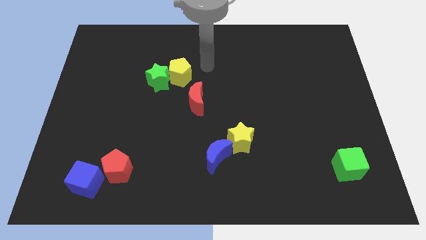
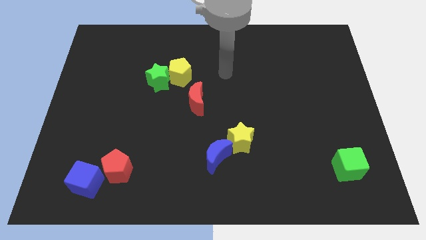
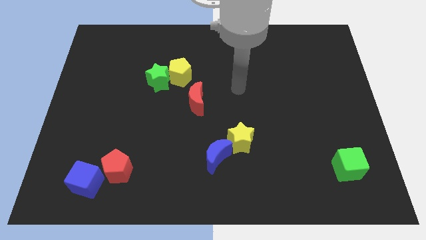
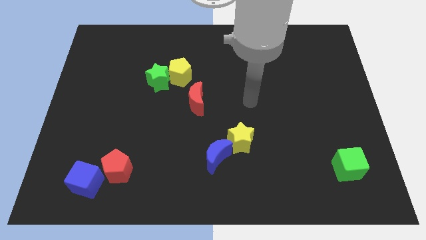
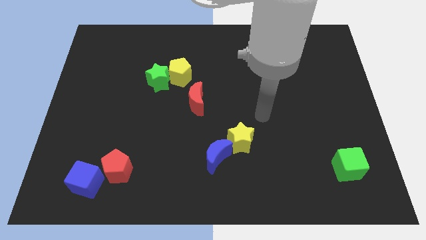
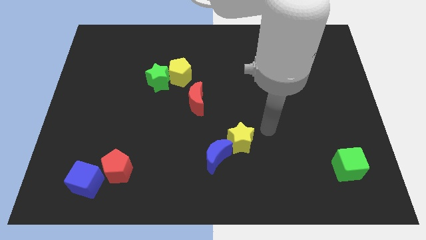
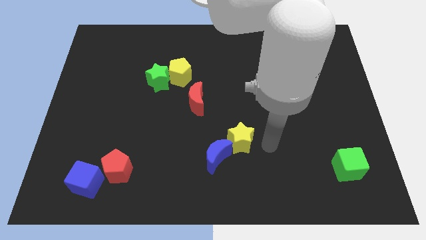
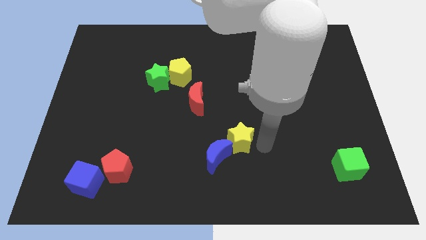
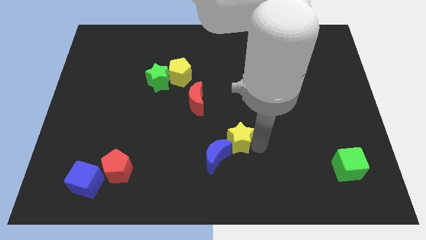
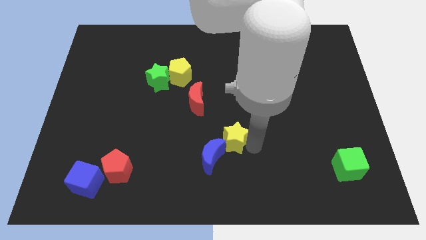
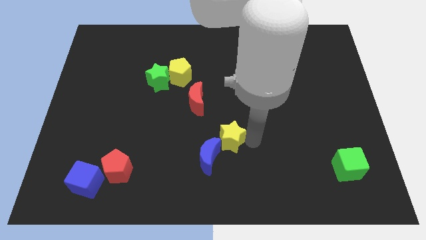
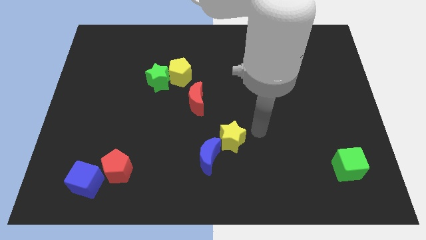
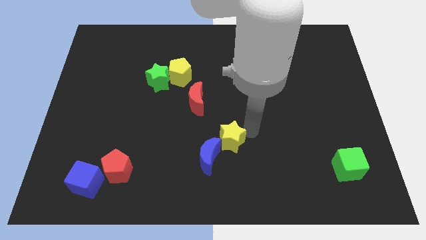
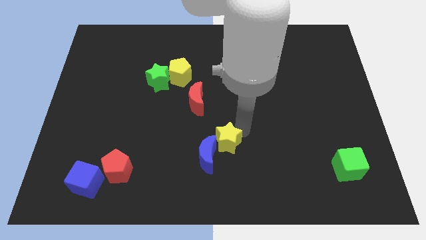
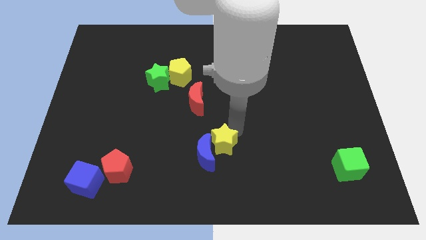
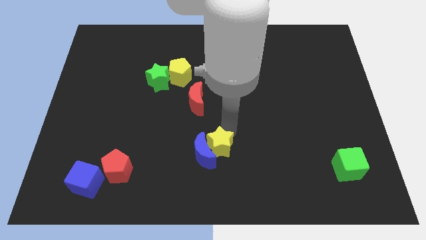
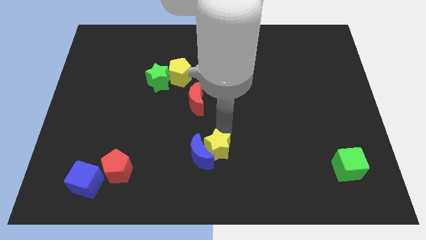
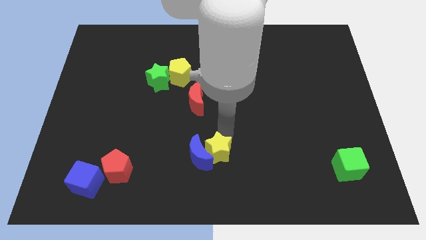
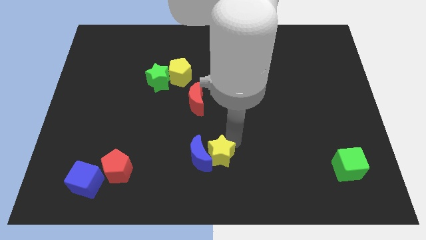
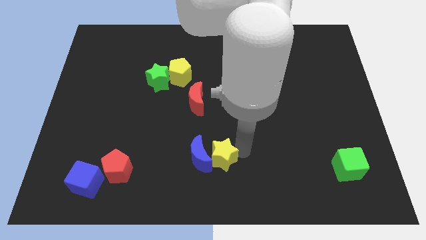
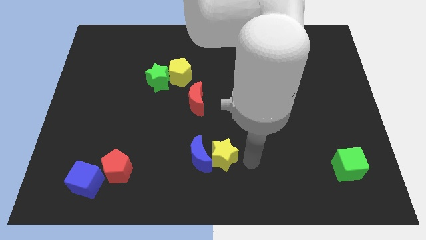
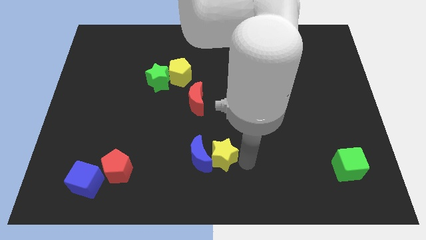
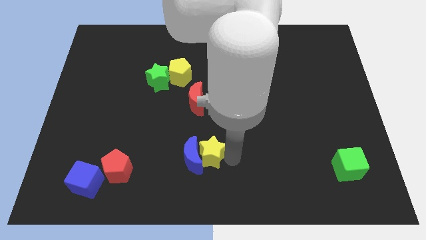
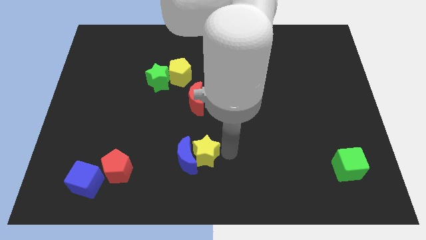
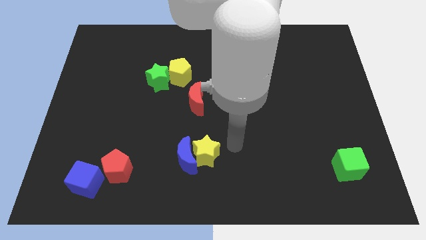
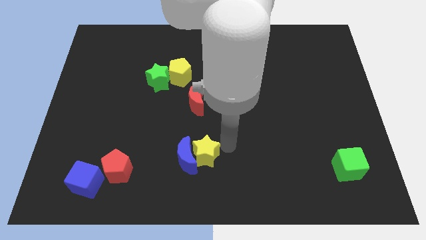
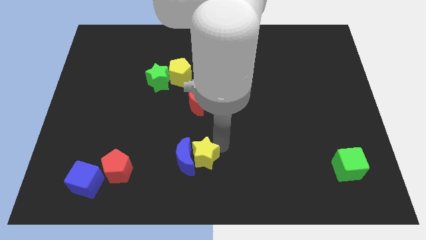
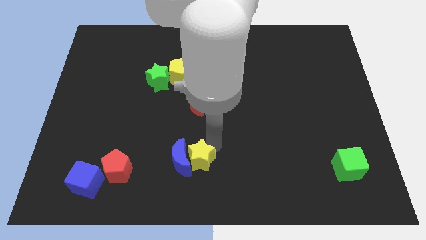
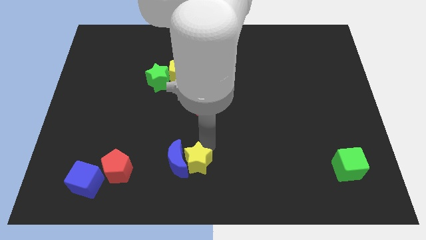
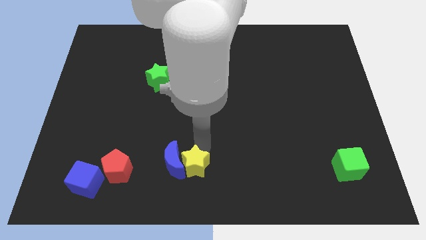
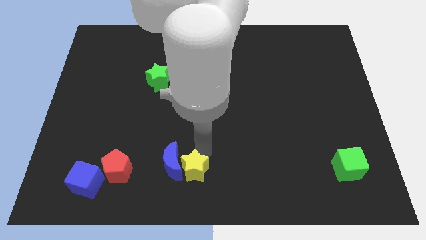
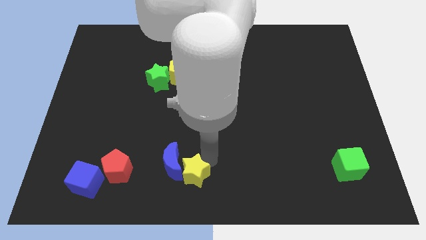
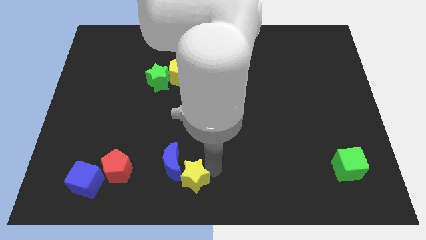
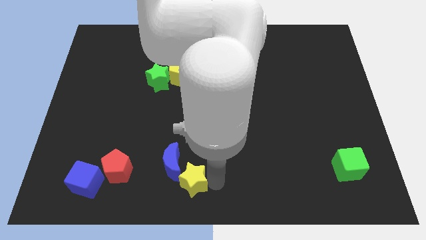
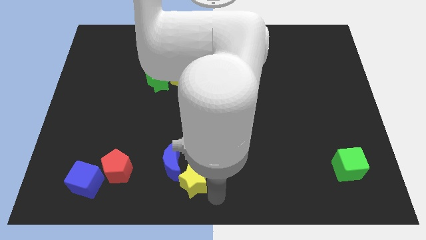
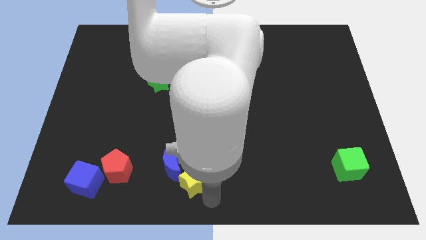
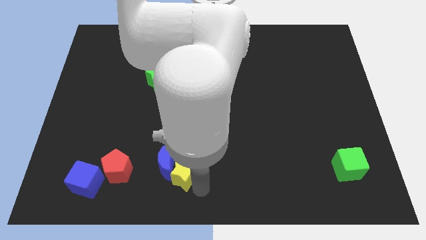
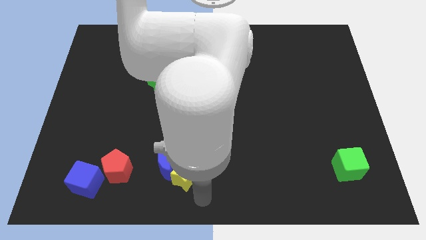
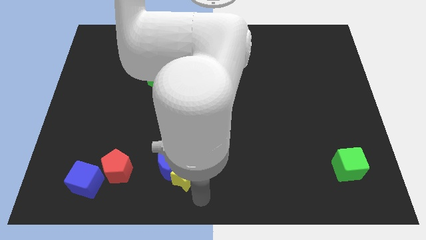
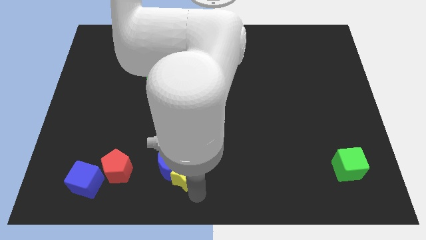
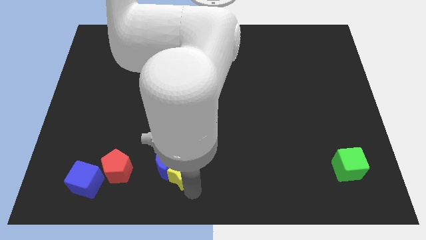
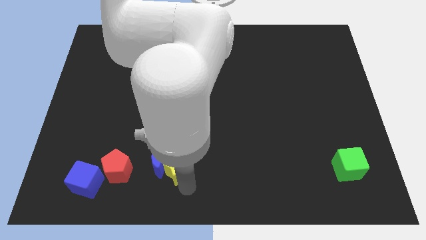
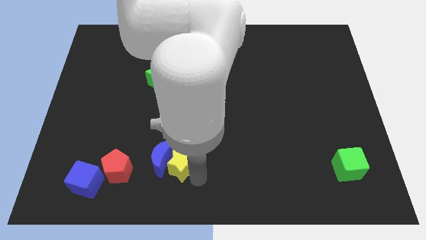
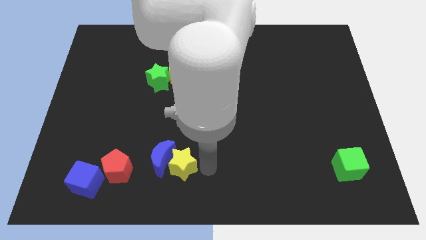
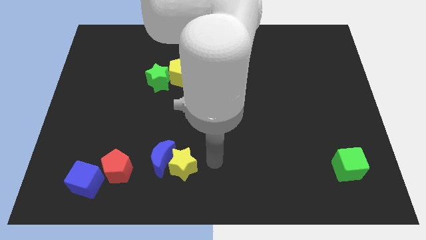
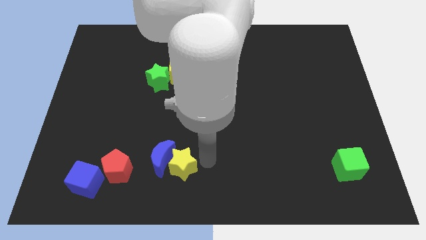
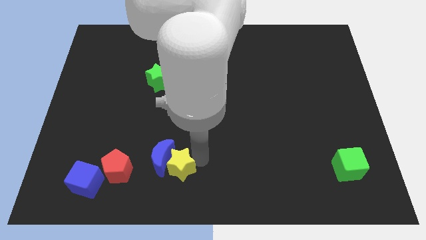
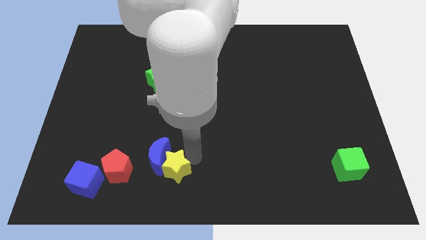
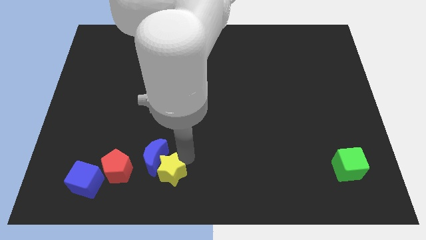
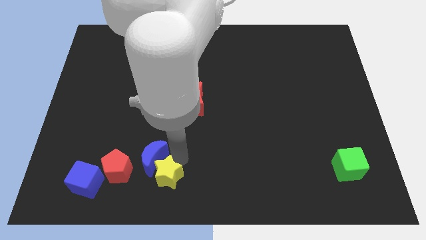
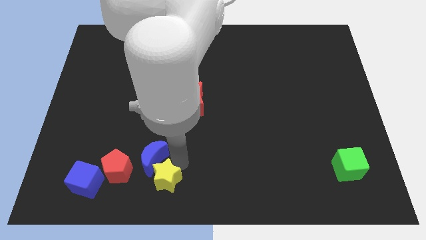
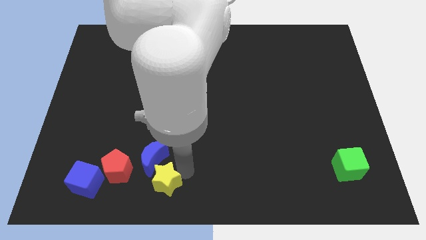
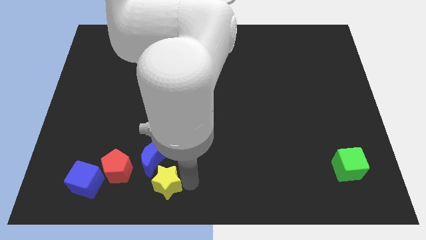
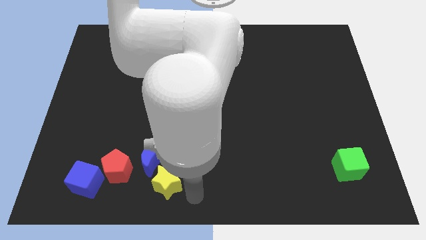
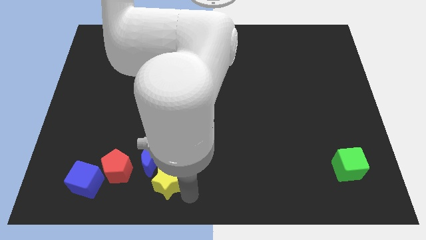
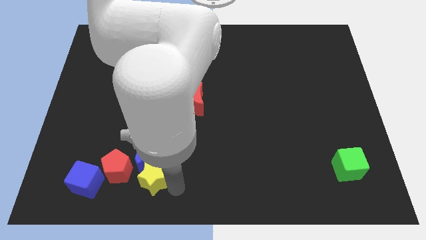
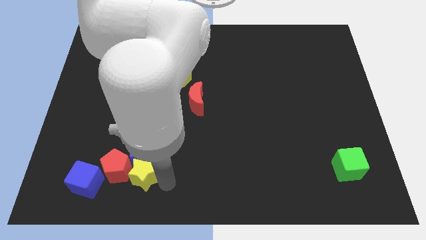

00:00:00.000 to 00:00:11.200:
move the yellow star towards the red pentagon

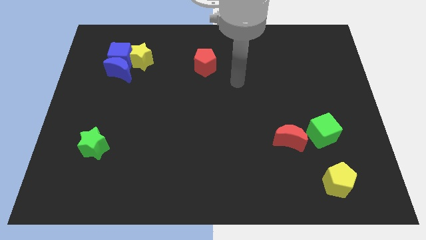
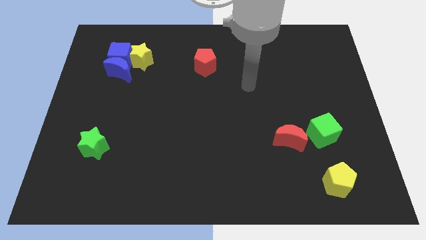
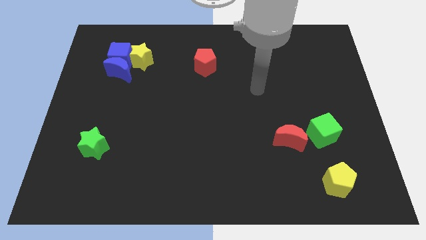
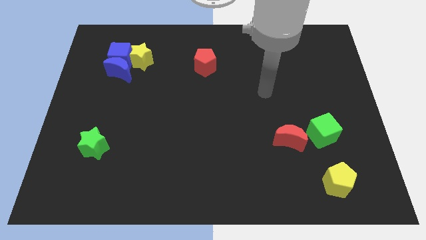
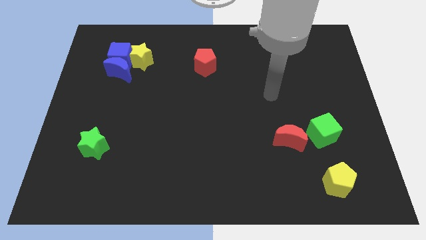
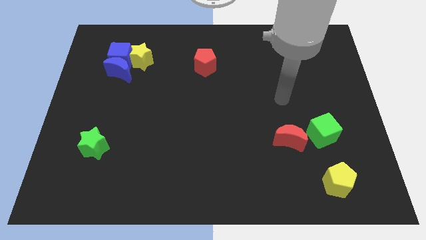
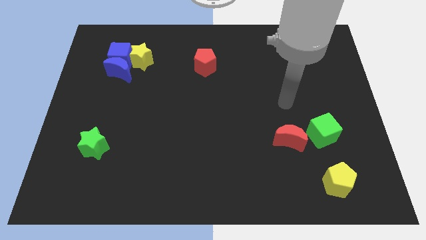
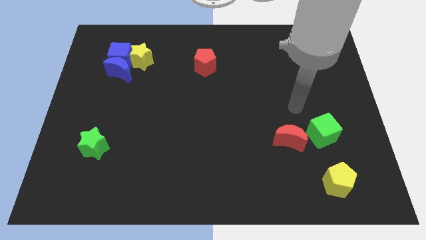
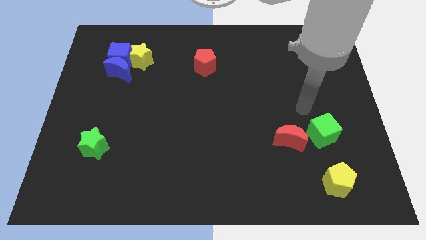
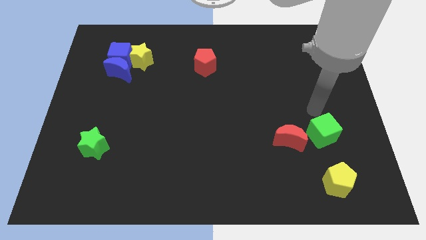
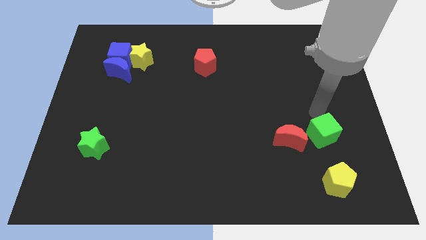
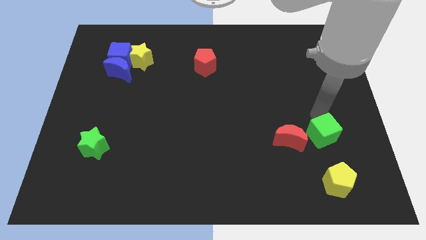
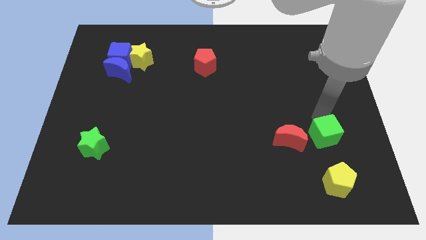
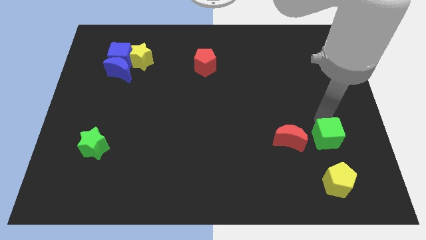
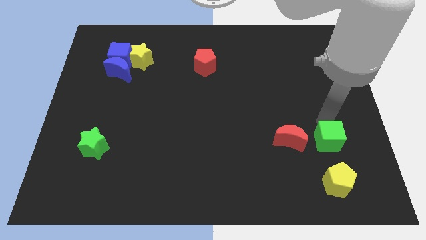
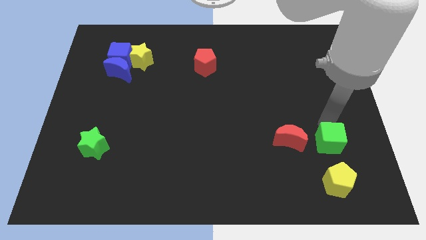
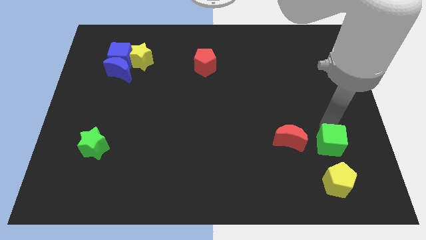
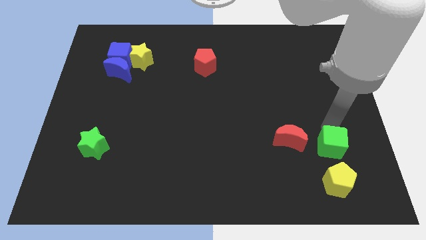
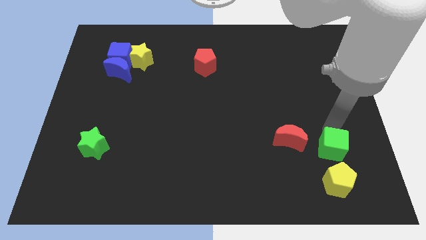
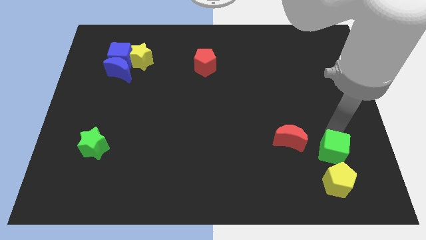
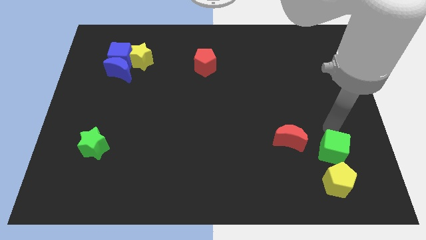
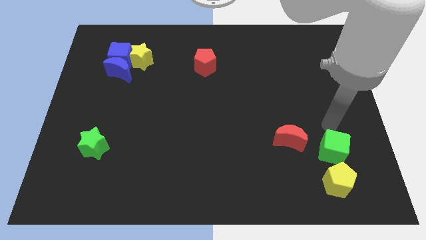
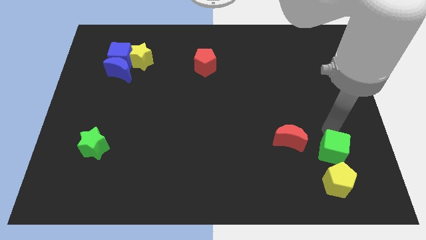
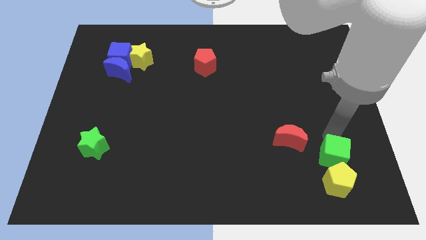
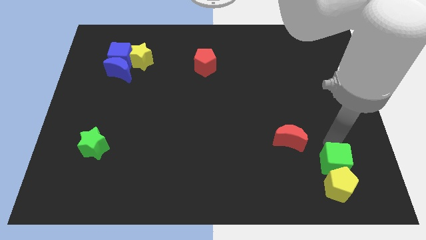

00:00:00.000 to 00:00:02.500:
move the green cube towards the yellow pentagon
